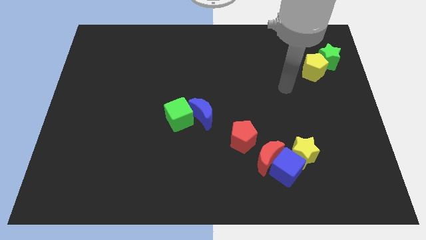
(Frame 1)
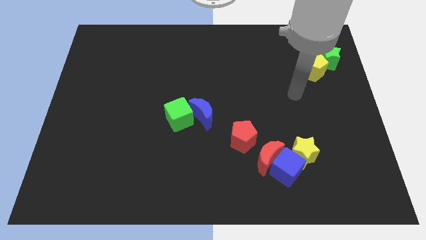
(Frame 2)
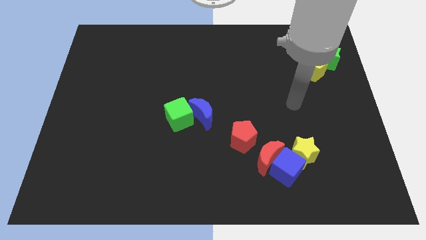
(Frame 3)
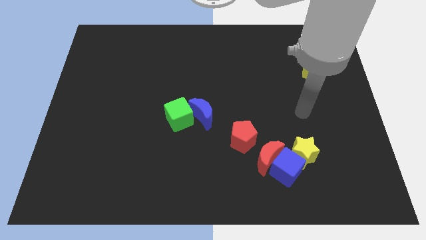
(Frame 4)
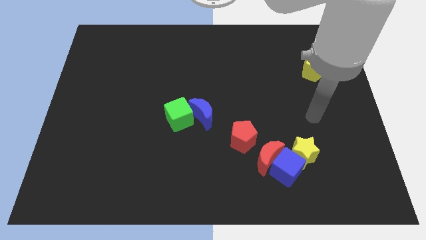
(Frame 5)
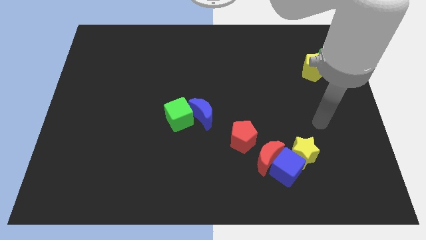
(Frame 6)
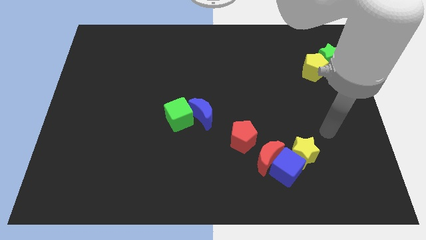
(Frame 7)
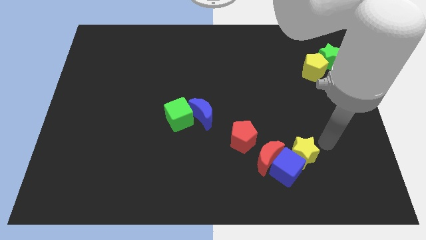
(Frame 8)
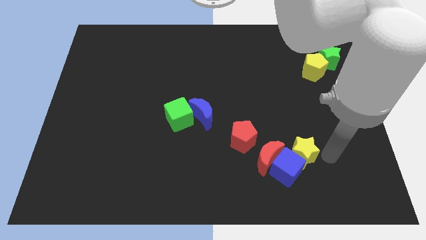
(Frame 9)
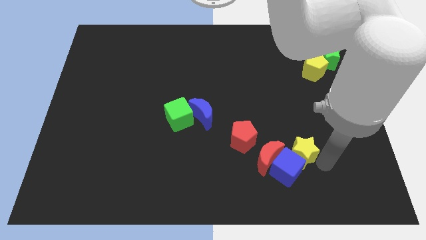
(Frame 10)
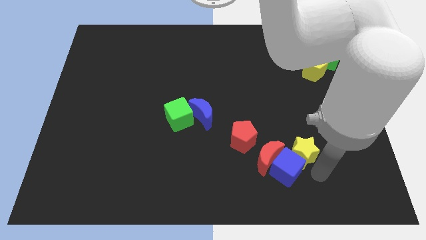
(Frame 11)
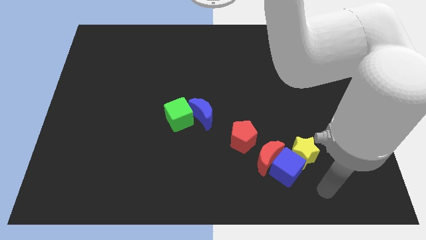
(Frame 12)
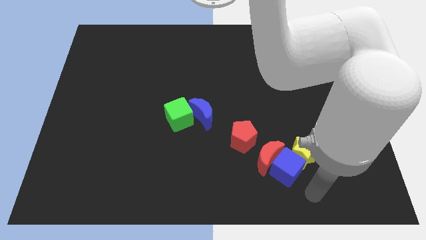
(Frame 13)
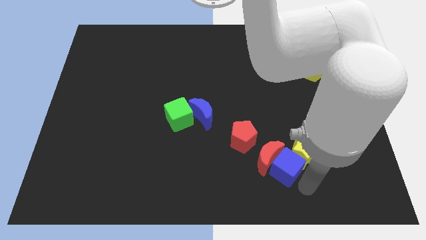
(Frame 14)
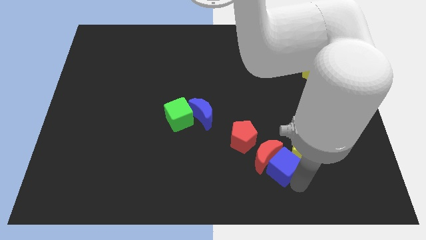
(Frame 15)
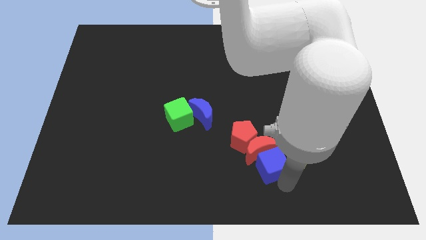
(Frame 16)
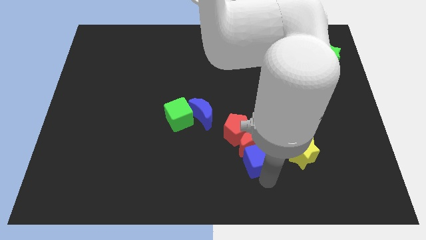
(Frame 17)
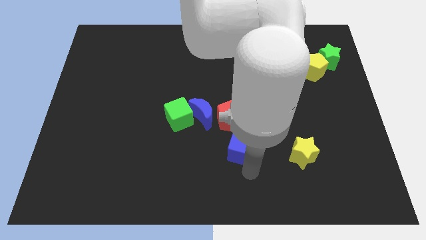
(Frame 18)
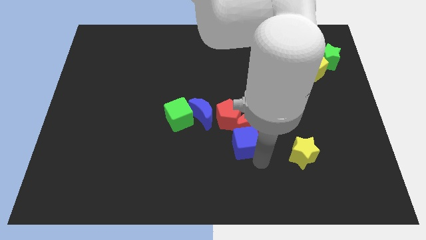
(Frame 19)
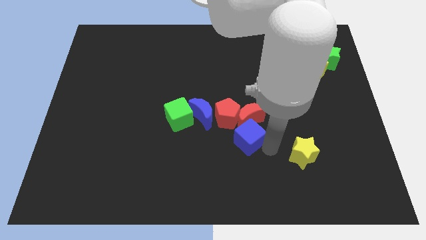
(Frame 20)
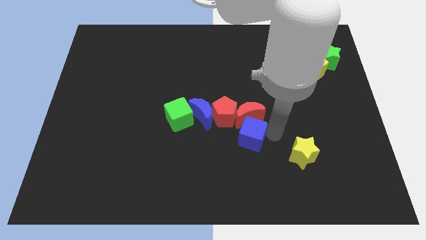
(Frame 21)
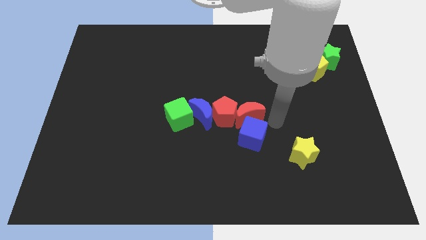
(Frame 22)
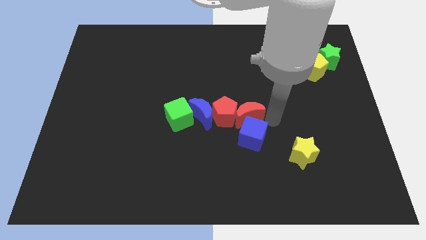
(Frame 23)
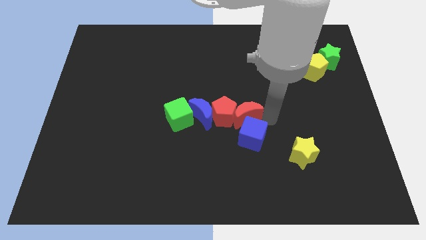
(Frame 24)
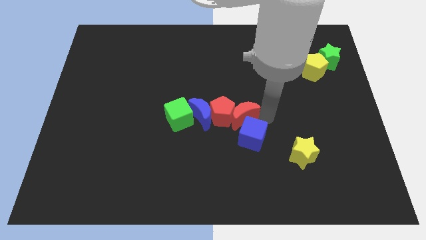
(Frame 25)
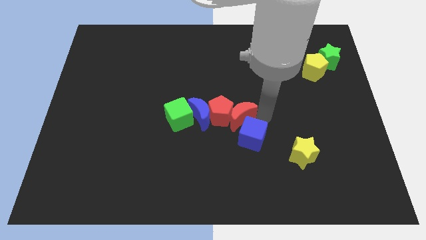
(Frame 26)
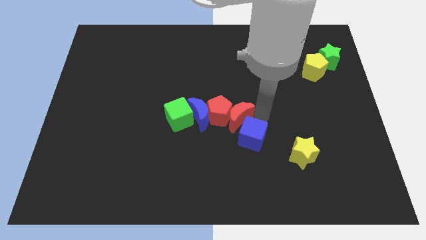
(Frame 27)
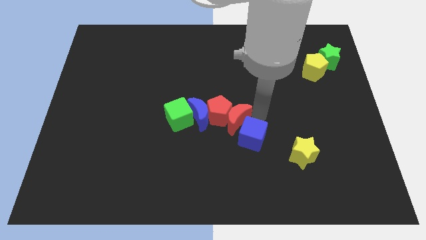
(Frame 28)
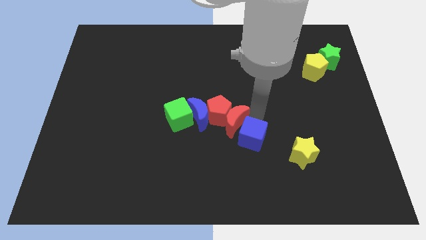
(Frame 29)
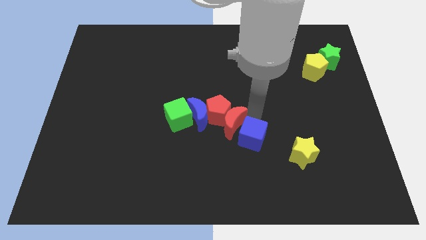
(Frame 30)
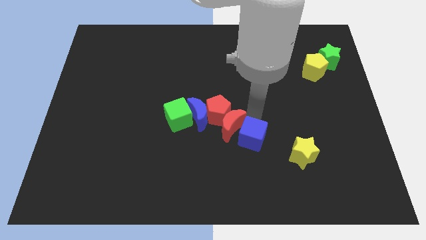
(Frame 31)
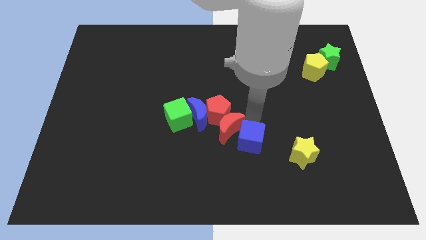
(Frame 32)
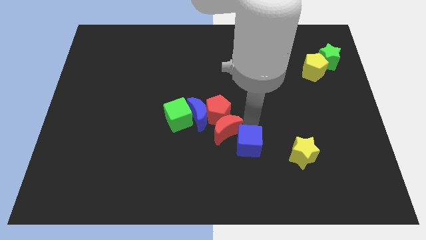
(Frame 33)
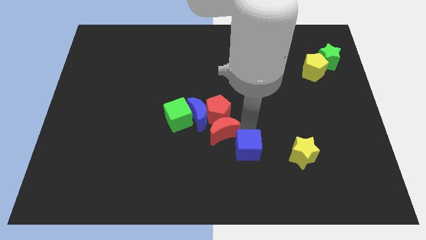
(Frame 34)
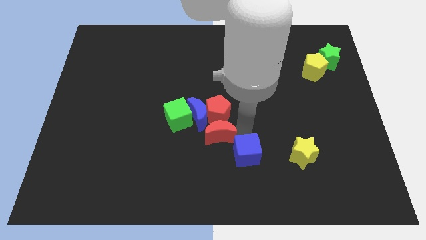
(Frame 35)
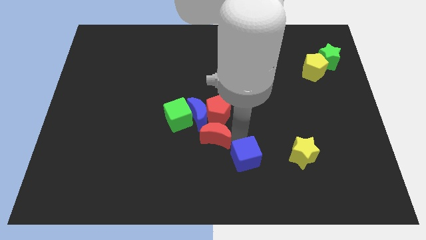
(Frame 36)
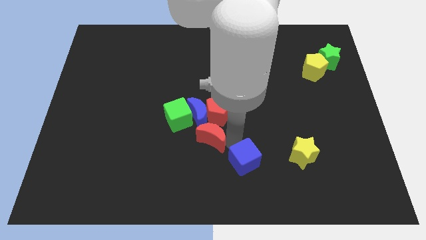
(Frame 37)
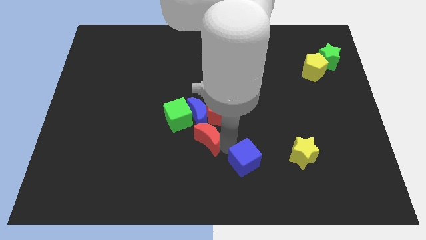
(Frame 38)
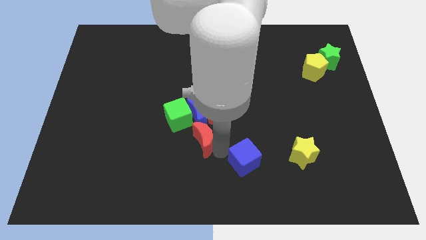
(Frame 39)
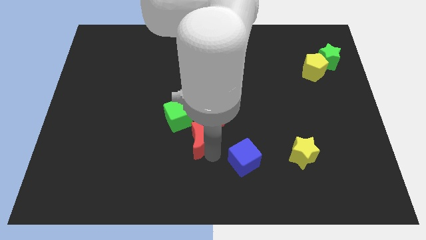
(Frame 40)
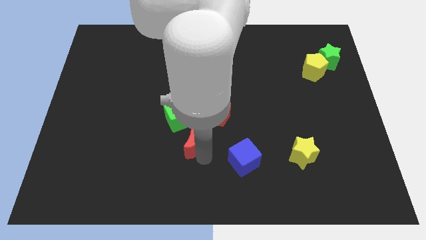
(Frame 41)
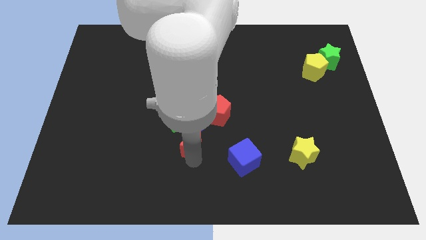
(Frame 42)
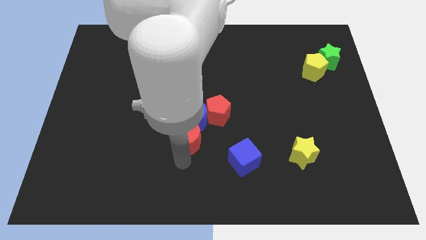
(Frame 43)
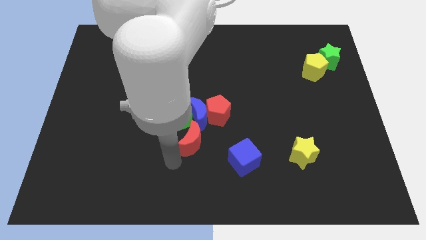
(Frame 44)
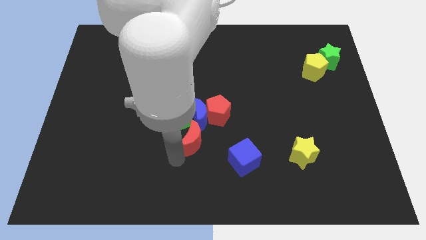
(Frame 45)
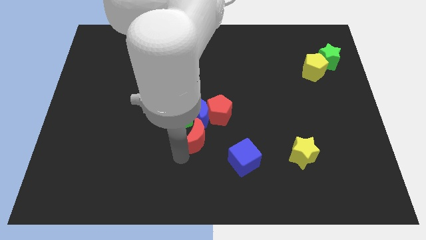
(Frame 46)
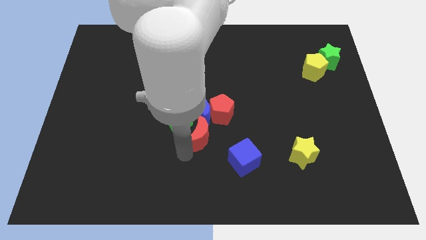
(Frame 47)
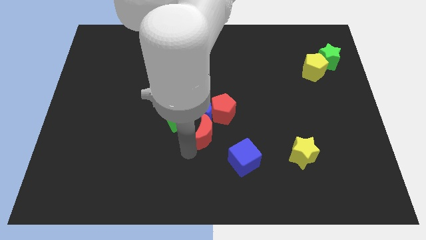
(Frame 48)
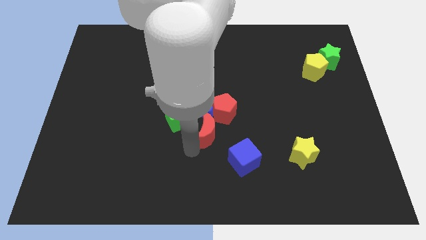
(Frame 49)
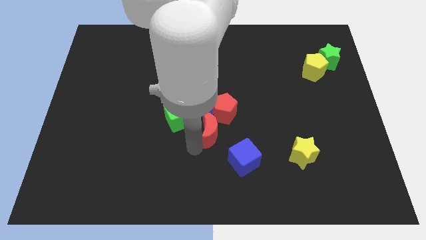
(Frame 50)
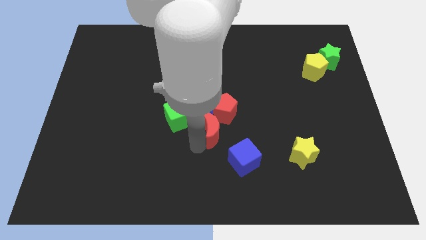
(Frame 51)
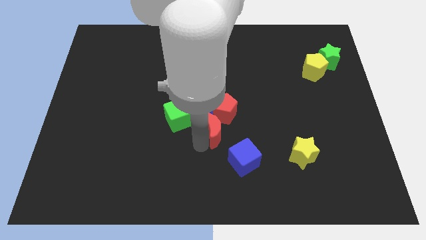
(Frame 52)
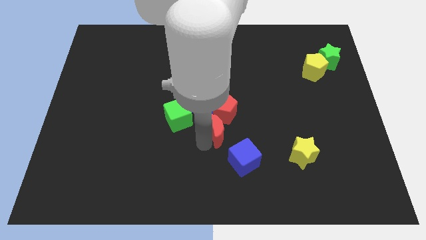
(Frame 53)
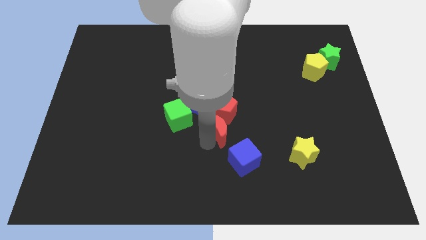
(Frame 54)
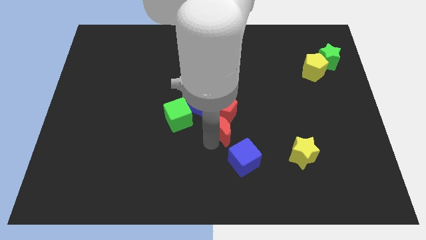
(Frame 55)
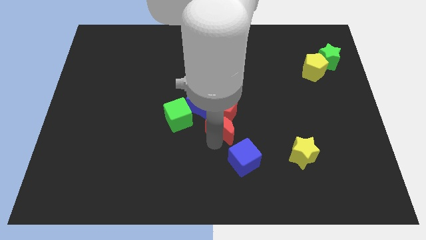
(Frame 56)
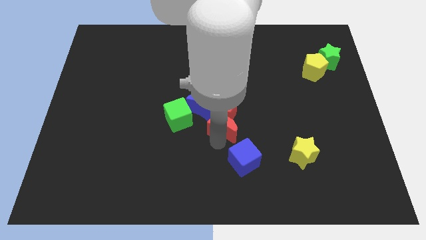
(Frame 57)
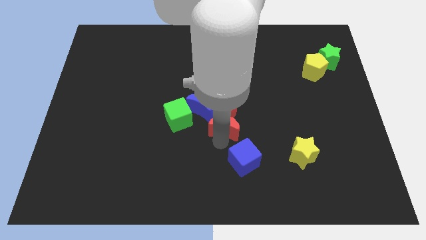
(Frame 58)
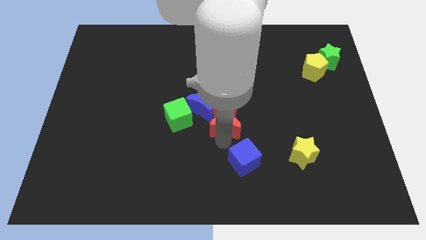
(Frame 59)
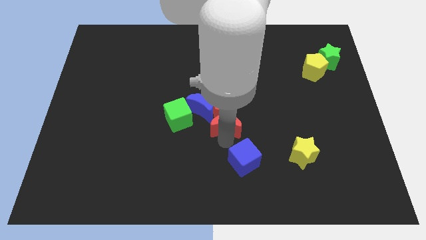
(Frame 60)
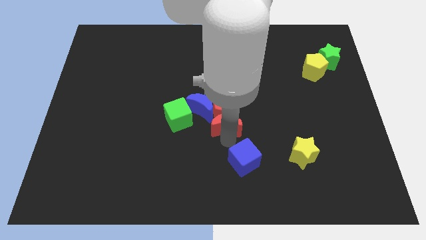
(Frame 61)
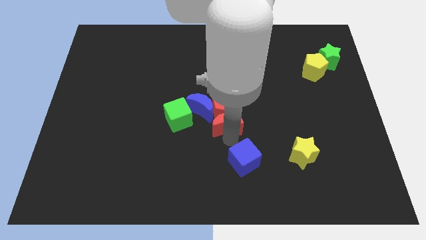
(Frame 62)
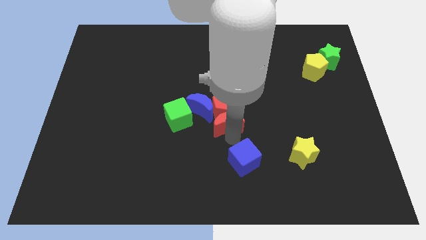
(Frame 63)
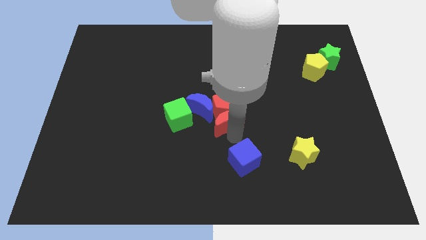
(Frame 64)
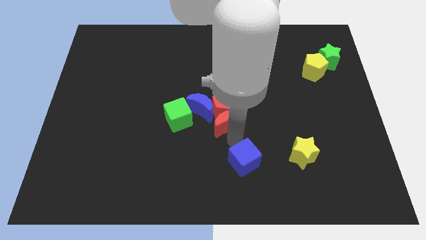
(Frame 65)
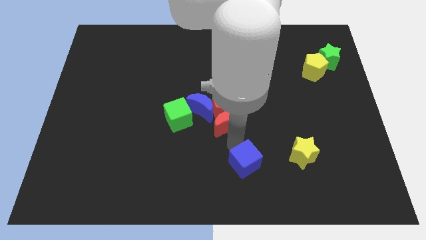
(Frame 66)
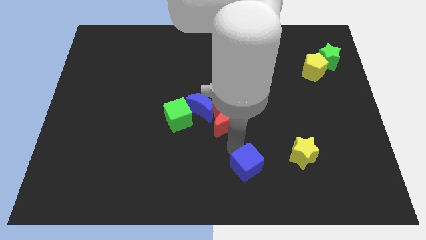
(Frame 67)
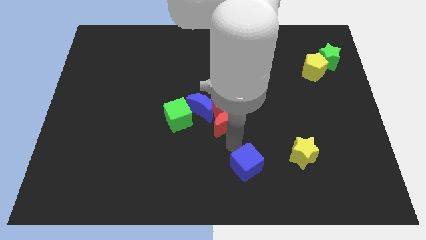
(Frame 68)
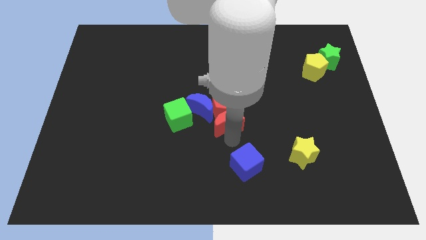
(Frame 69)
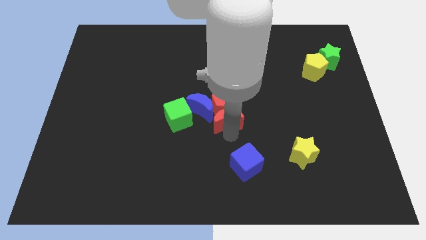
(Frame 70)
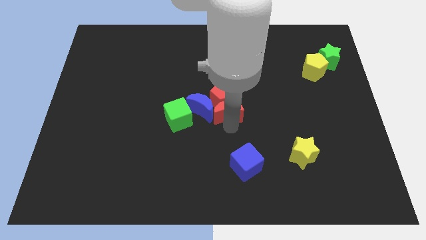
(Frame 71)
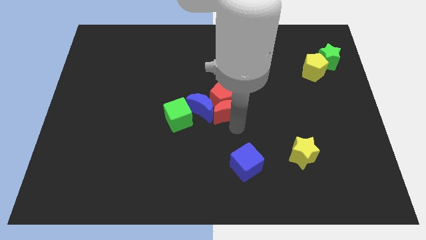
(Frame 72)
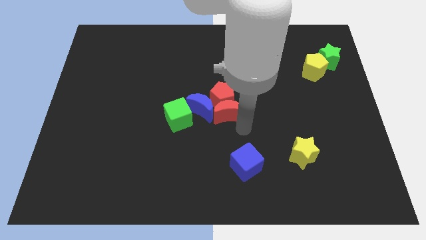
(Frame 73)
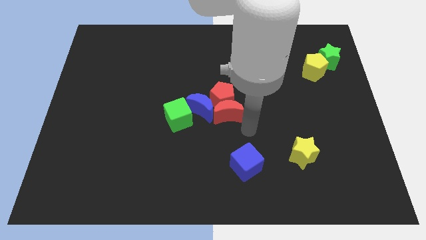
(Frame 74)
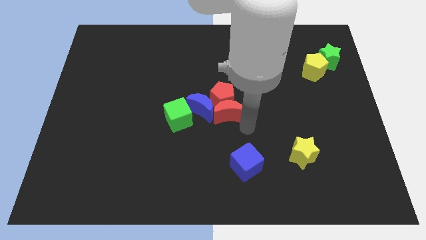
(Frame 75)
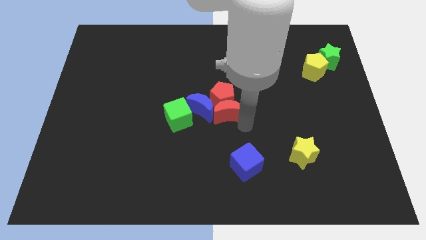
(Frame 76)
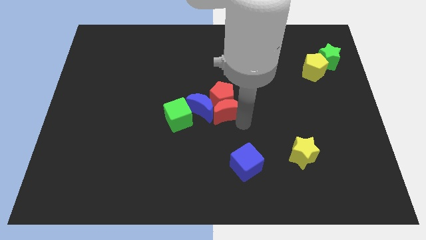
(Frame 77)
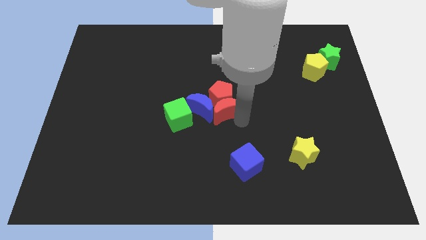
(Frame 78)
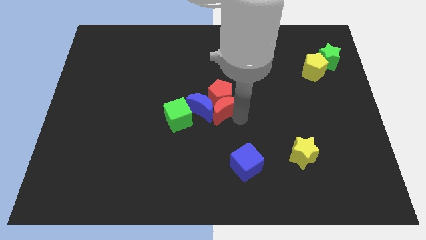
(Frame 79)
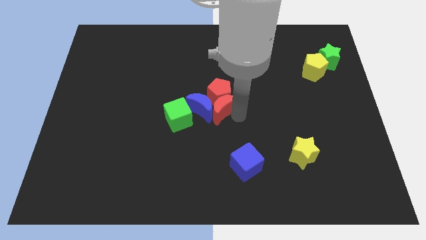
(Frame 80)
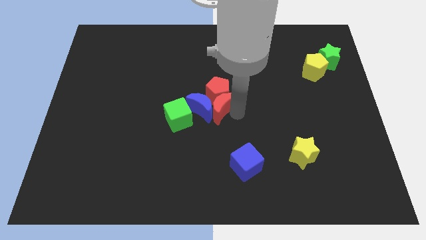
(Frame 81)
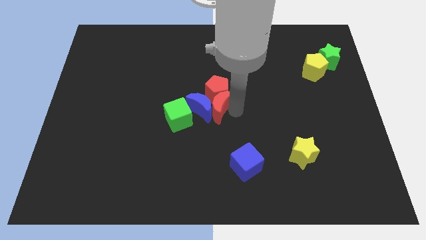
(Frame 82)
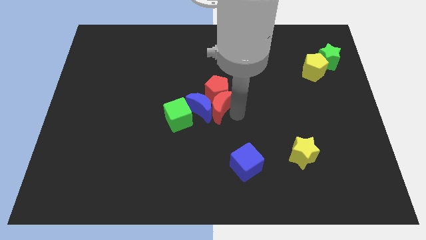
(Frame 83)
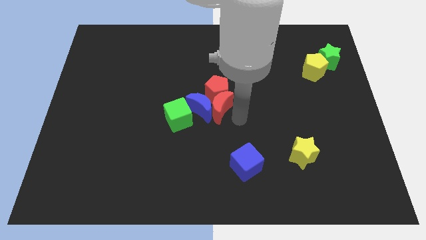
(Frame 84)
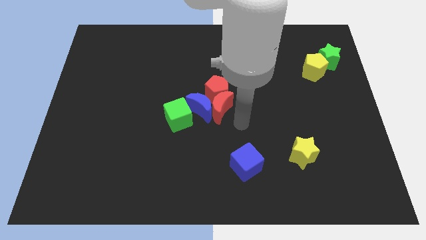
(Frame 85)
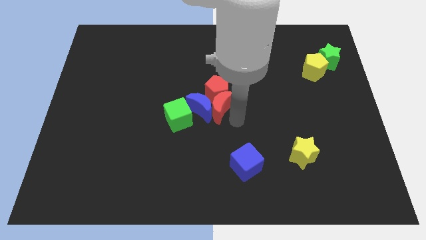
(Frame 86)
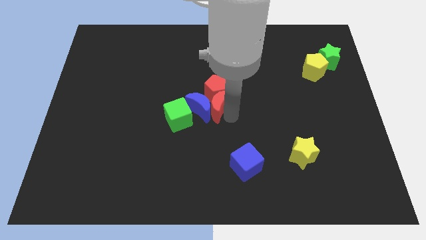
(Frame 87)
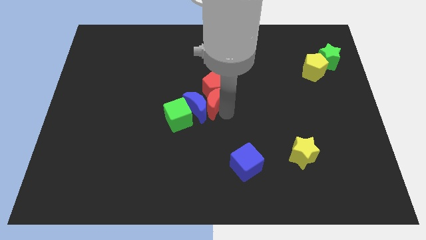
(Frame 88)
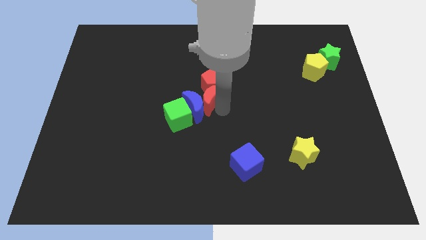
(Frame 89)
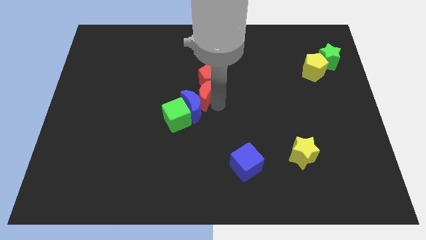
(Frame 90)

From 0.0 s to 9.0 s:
push the red moon diagonally up and left
